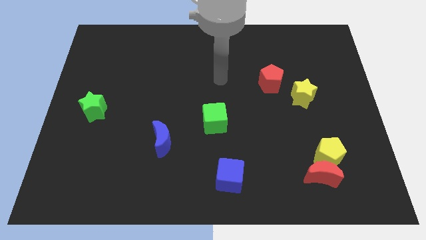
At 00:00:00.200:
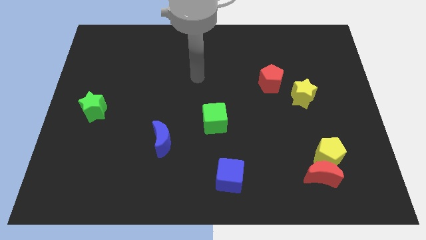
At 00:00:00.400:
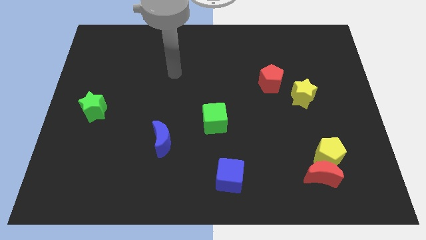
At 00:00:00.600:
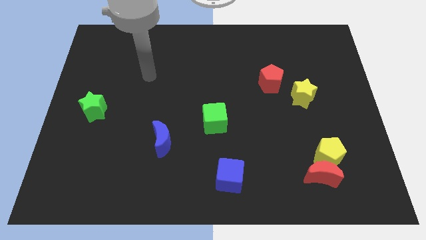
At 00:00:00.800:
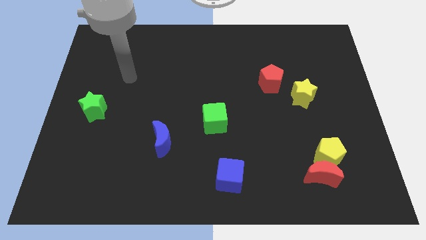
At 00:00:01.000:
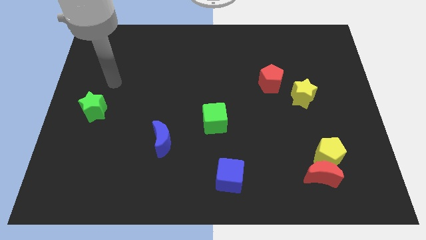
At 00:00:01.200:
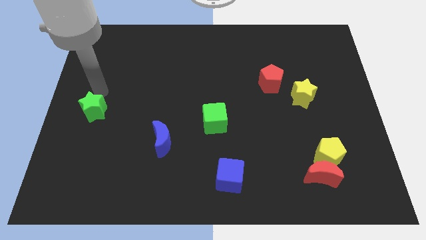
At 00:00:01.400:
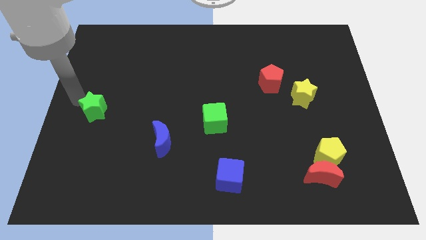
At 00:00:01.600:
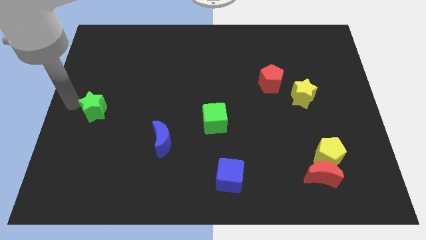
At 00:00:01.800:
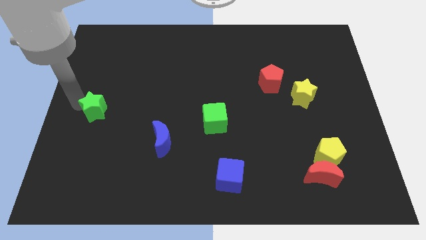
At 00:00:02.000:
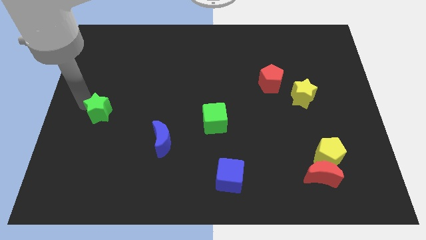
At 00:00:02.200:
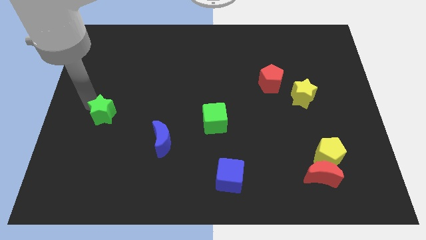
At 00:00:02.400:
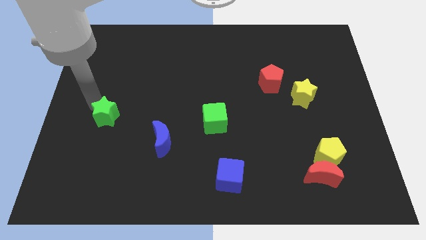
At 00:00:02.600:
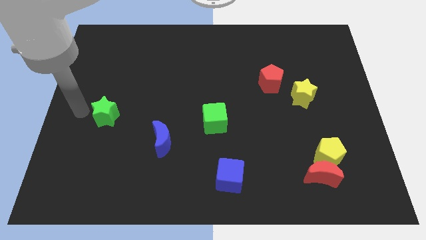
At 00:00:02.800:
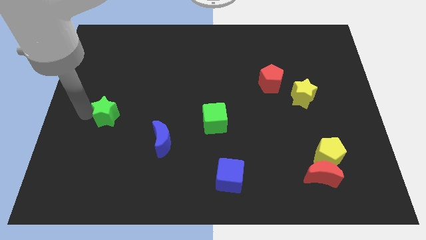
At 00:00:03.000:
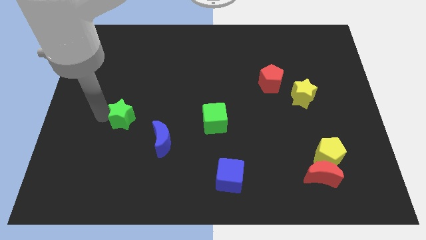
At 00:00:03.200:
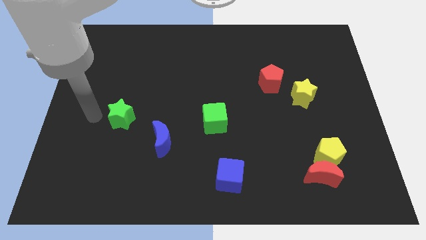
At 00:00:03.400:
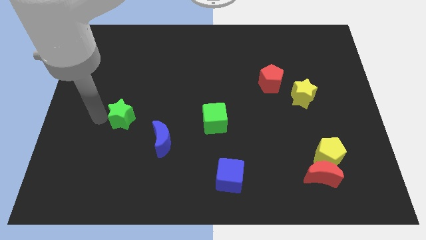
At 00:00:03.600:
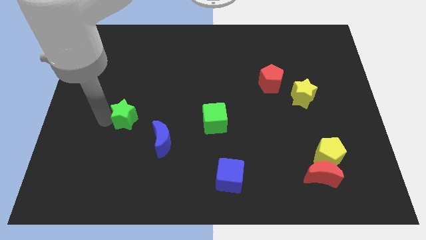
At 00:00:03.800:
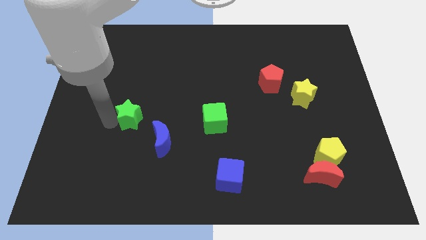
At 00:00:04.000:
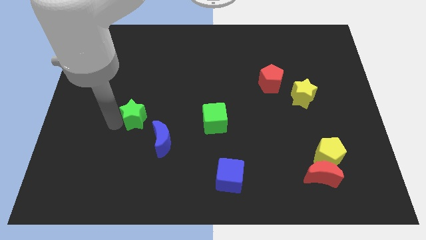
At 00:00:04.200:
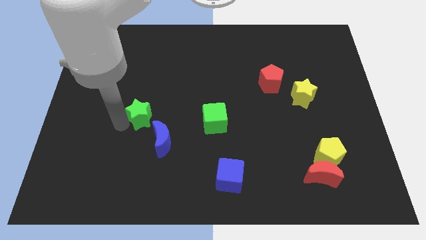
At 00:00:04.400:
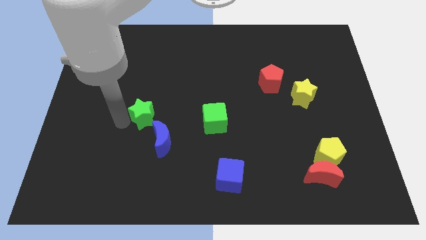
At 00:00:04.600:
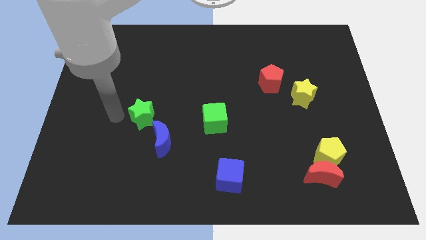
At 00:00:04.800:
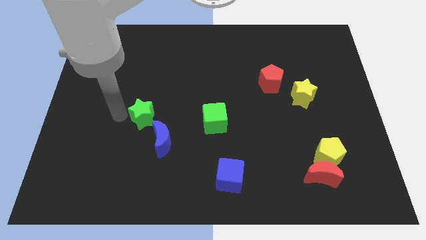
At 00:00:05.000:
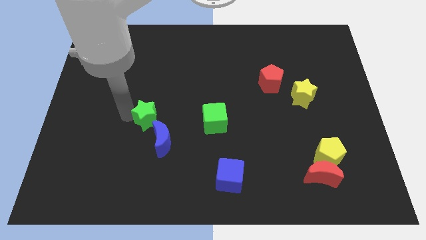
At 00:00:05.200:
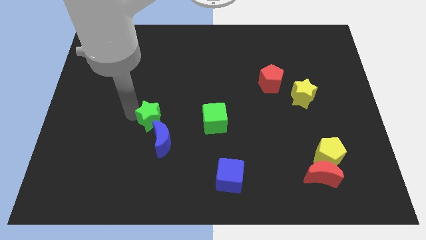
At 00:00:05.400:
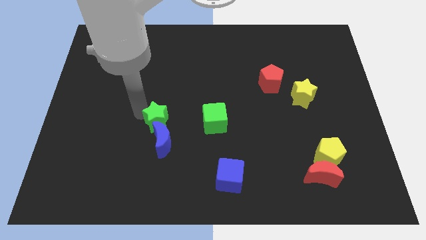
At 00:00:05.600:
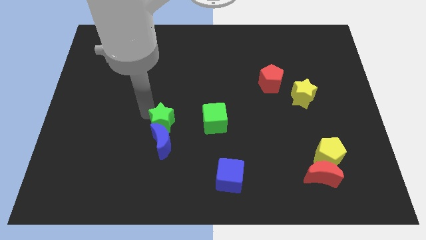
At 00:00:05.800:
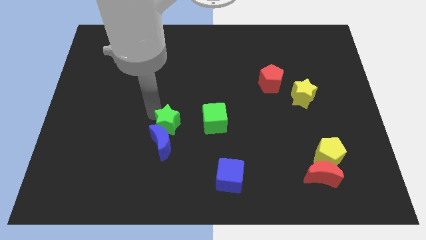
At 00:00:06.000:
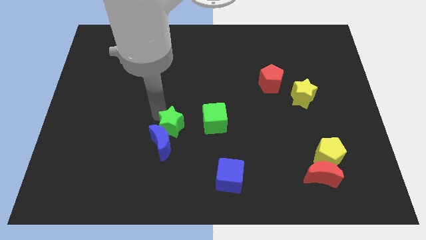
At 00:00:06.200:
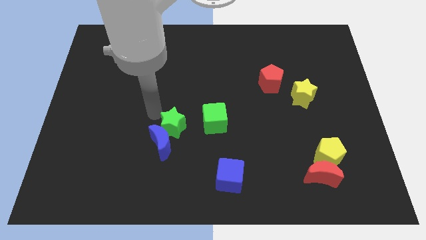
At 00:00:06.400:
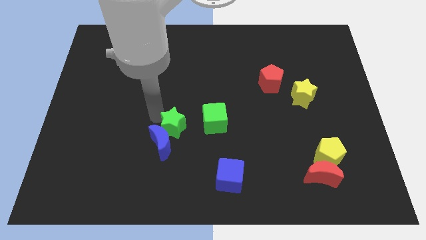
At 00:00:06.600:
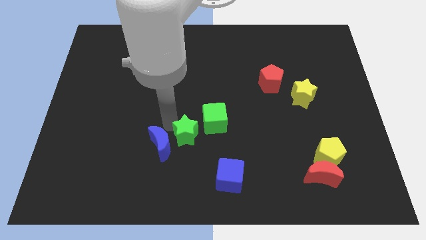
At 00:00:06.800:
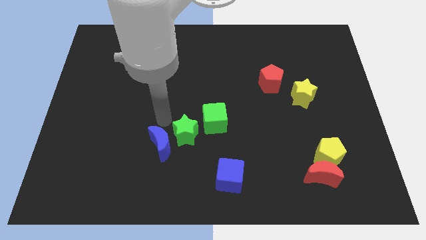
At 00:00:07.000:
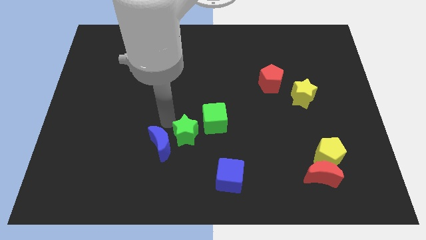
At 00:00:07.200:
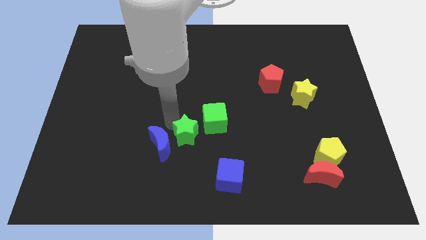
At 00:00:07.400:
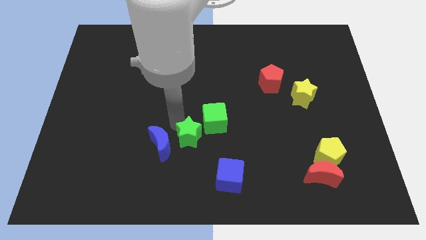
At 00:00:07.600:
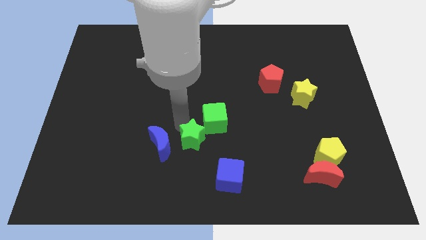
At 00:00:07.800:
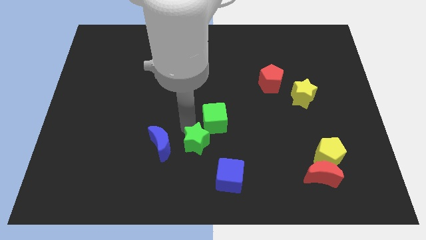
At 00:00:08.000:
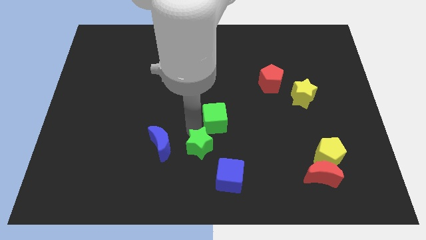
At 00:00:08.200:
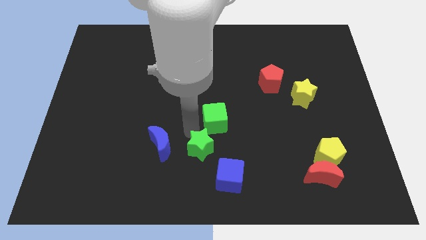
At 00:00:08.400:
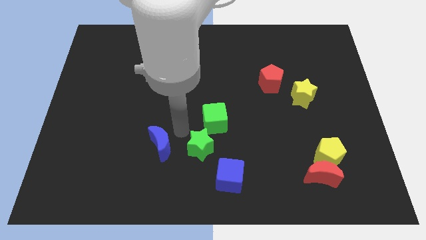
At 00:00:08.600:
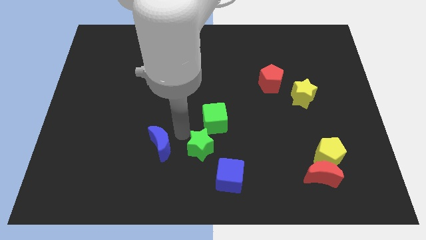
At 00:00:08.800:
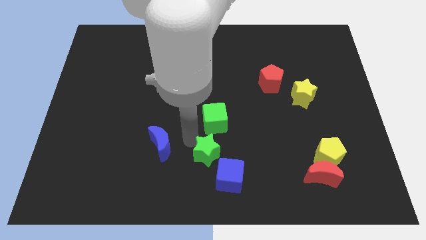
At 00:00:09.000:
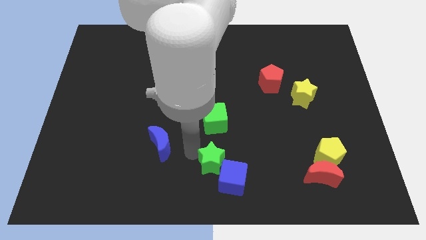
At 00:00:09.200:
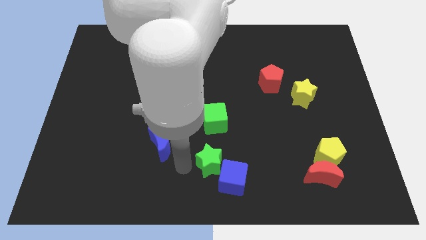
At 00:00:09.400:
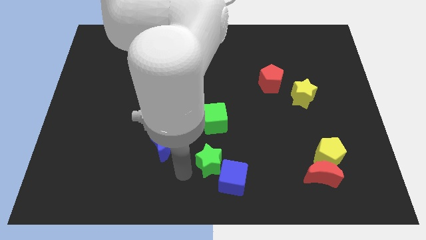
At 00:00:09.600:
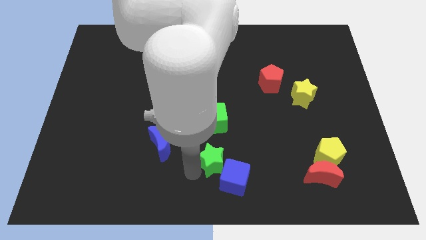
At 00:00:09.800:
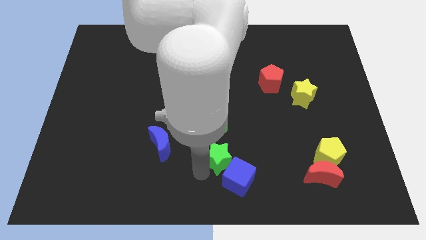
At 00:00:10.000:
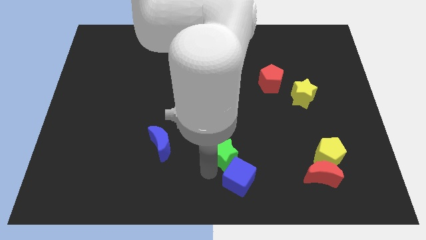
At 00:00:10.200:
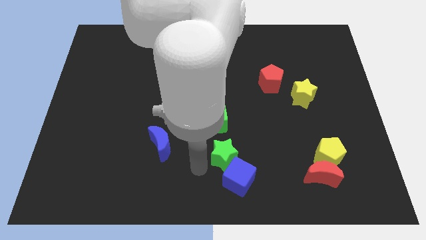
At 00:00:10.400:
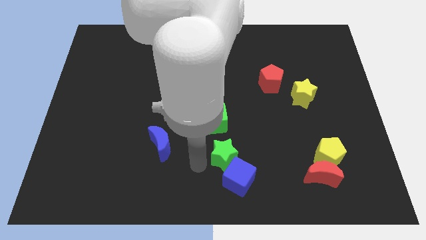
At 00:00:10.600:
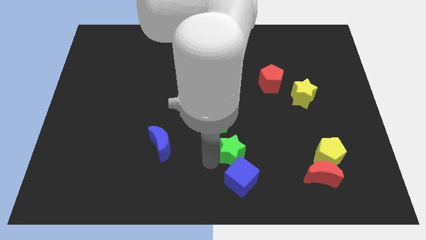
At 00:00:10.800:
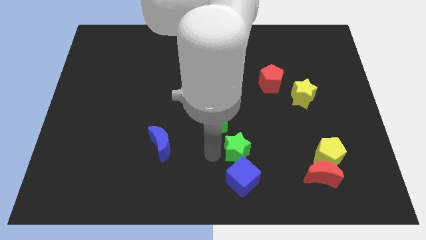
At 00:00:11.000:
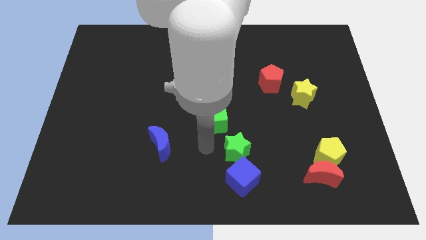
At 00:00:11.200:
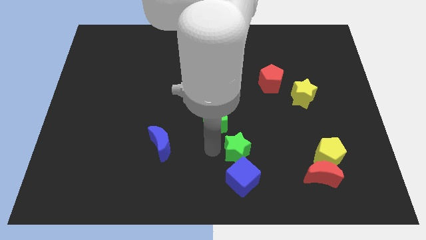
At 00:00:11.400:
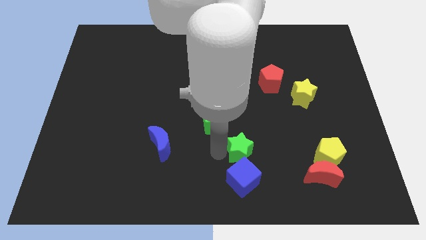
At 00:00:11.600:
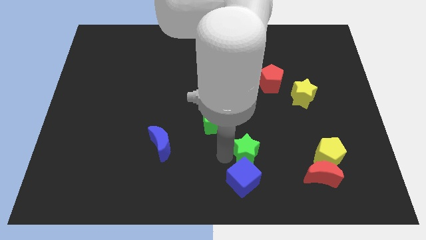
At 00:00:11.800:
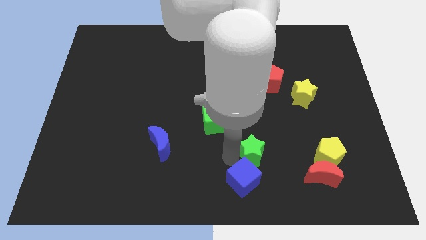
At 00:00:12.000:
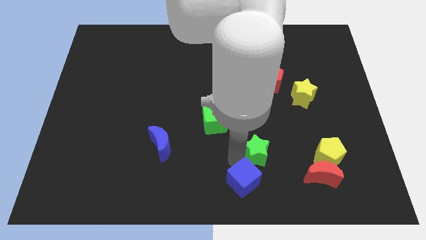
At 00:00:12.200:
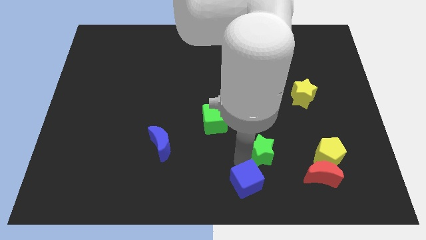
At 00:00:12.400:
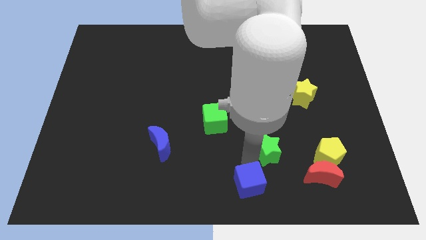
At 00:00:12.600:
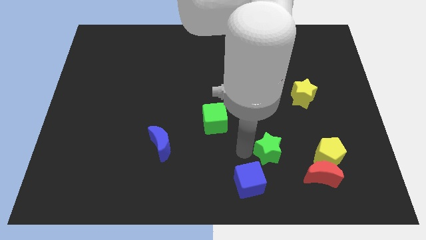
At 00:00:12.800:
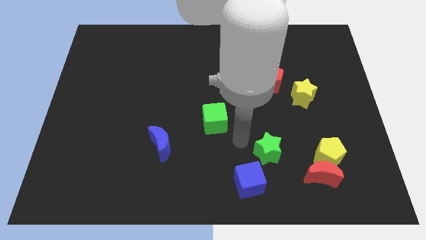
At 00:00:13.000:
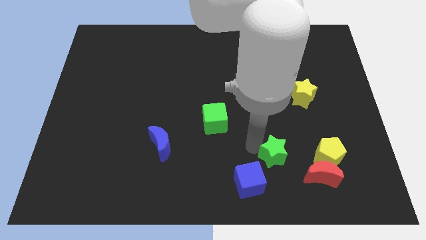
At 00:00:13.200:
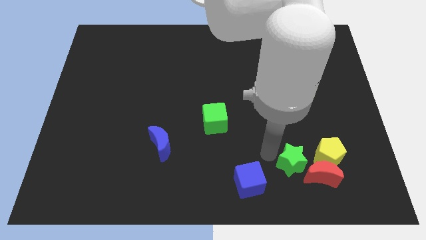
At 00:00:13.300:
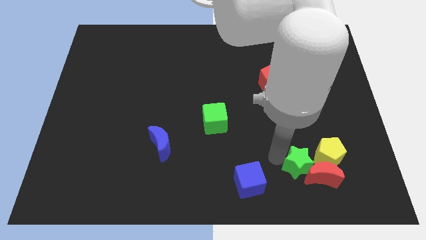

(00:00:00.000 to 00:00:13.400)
put the green star close to the red moon
